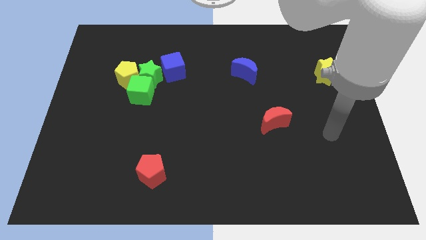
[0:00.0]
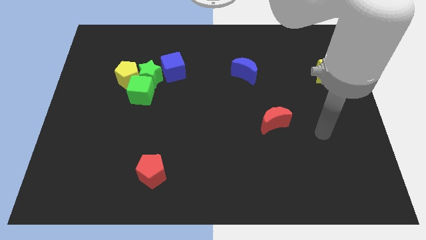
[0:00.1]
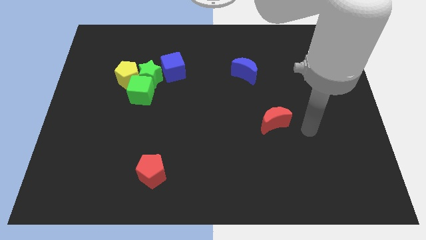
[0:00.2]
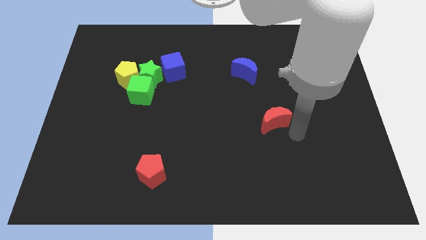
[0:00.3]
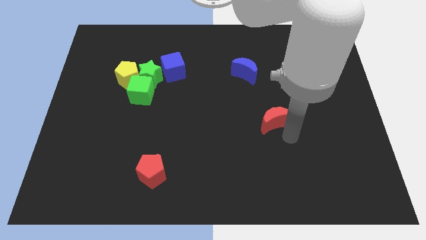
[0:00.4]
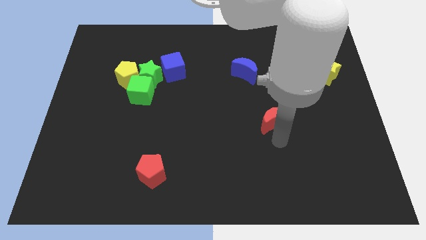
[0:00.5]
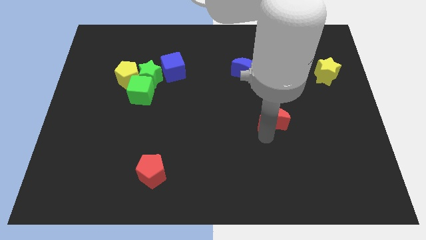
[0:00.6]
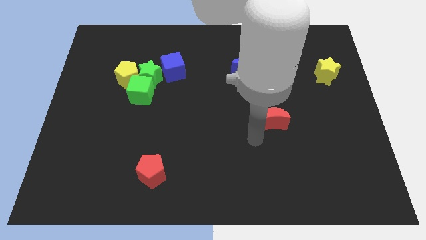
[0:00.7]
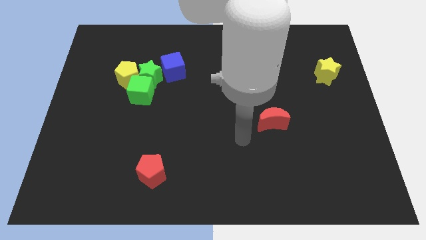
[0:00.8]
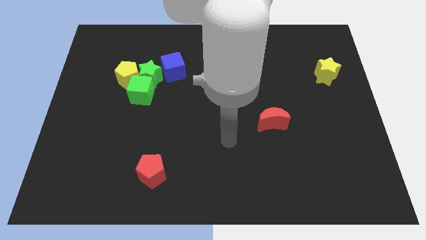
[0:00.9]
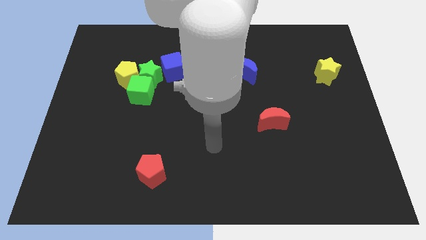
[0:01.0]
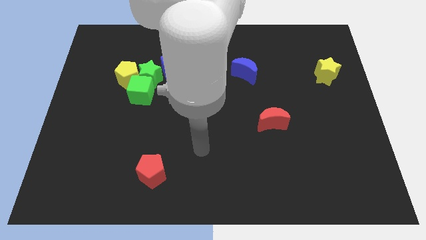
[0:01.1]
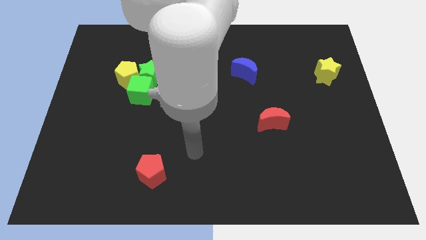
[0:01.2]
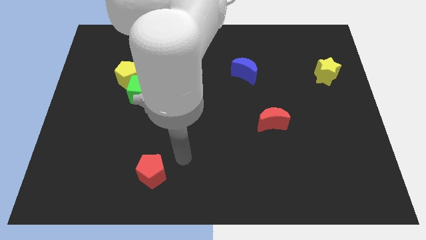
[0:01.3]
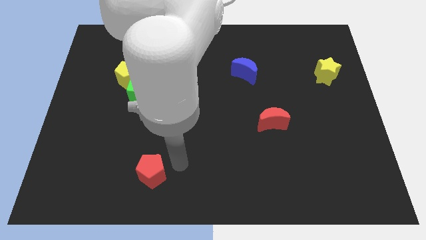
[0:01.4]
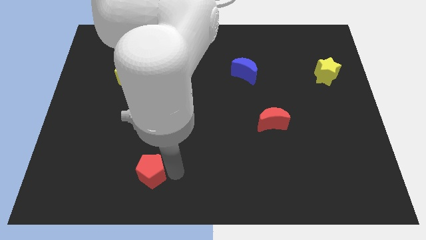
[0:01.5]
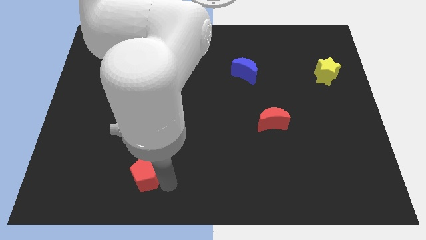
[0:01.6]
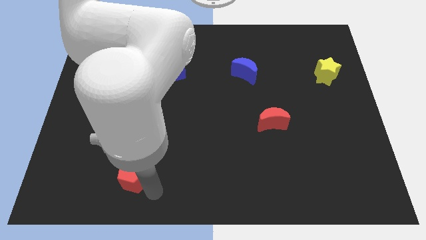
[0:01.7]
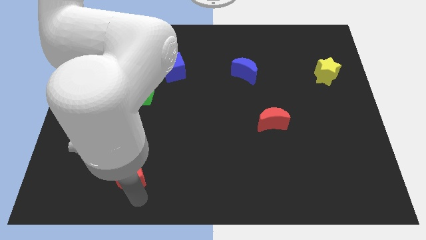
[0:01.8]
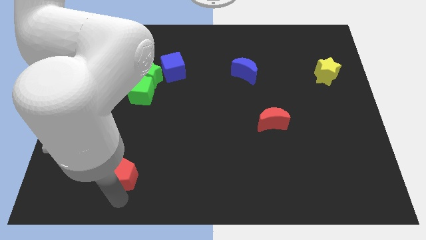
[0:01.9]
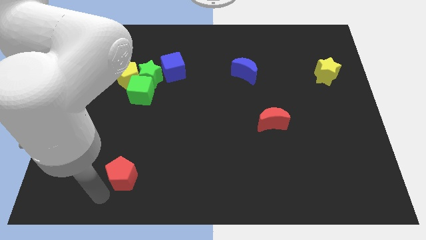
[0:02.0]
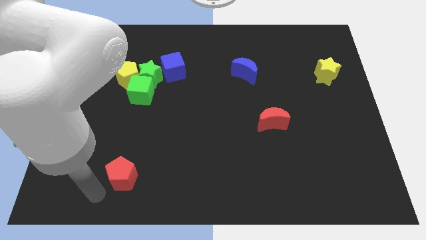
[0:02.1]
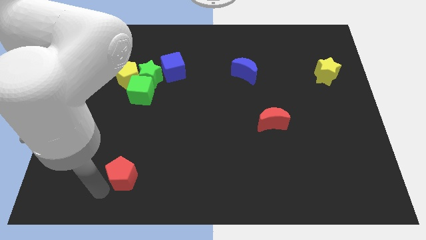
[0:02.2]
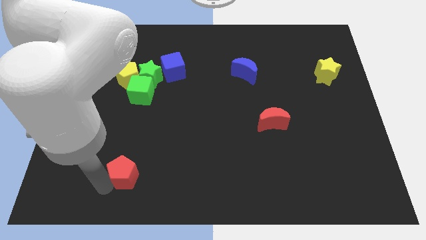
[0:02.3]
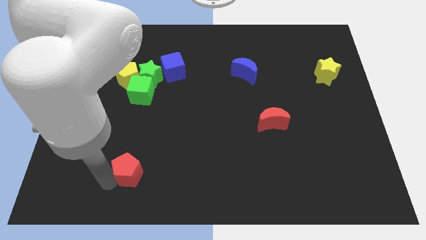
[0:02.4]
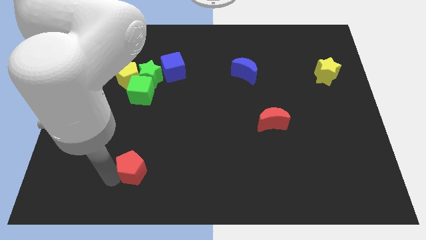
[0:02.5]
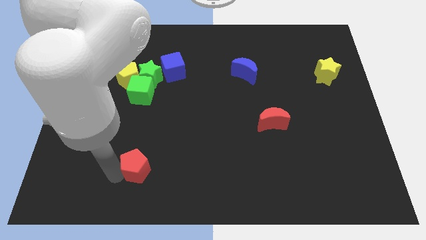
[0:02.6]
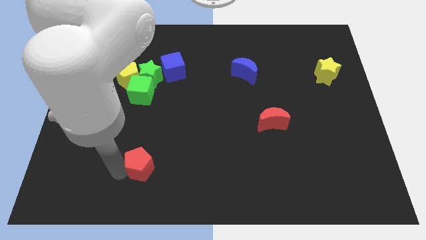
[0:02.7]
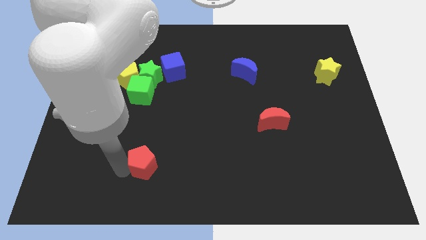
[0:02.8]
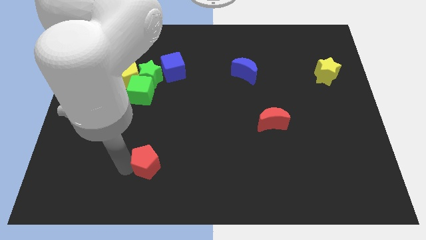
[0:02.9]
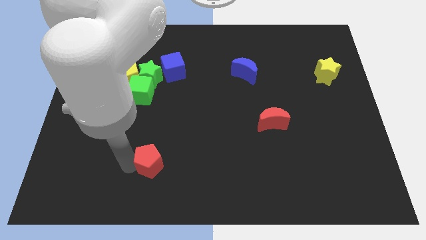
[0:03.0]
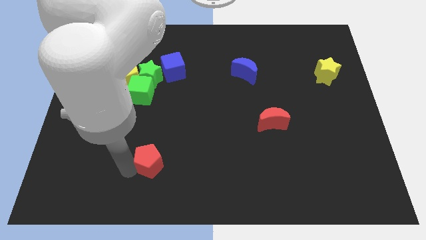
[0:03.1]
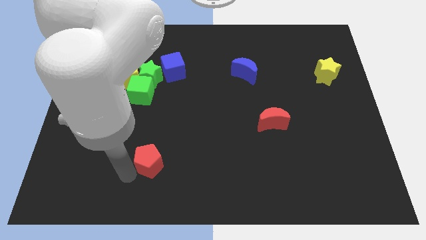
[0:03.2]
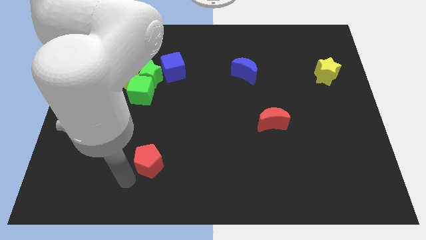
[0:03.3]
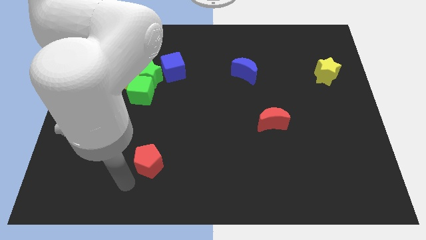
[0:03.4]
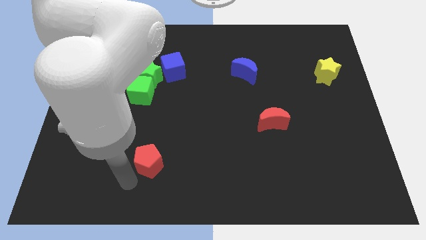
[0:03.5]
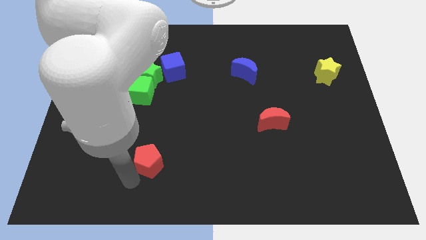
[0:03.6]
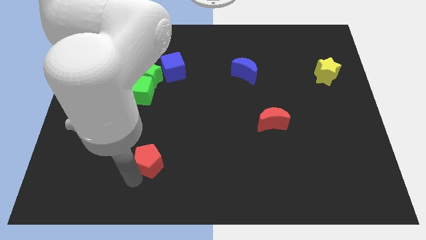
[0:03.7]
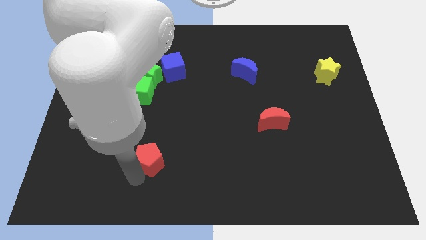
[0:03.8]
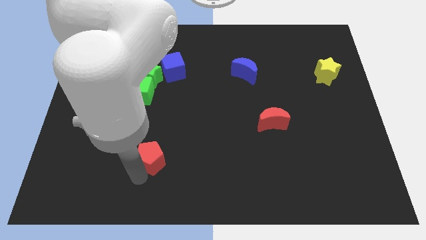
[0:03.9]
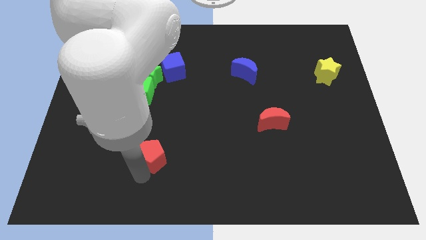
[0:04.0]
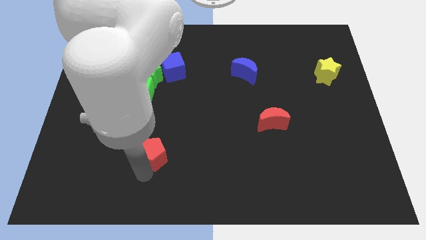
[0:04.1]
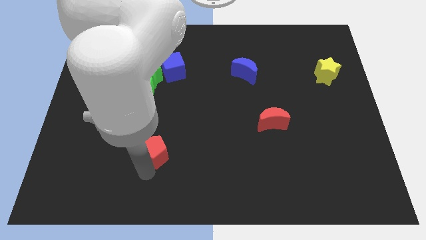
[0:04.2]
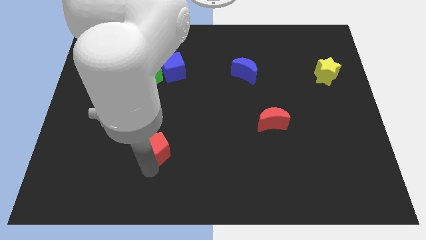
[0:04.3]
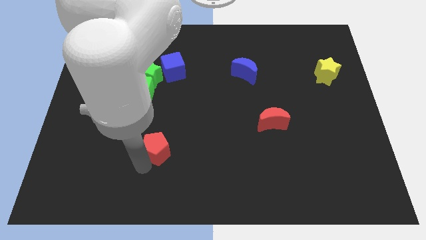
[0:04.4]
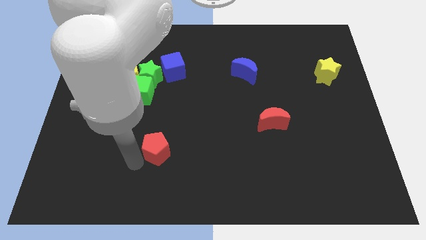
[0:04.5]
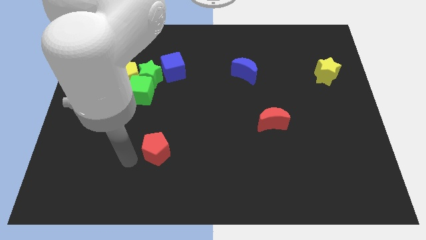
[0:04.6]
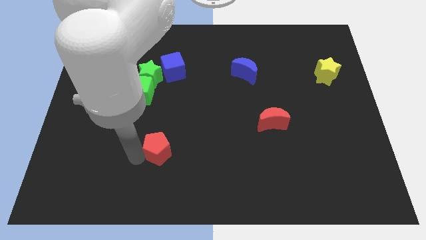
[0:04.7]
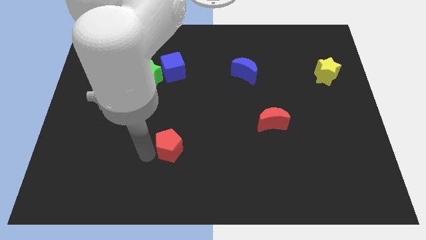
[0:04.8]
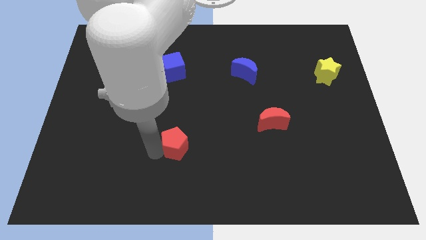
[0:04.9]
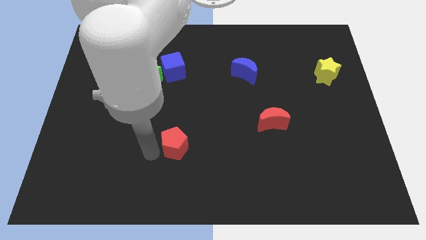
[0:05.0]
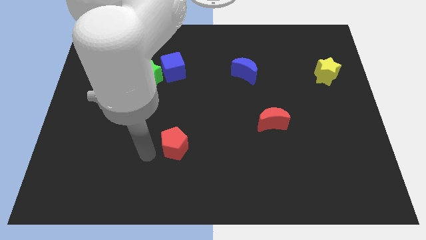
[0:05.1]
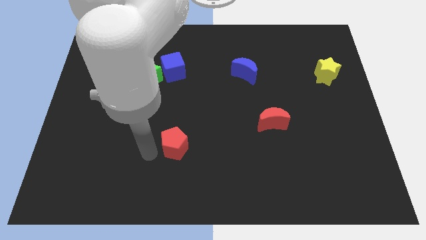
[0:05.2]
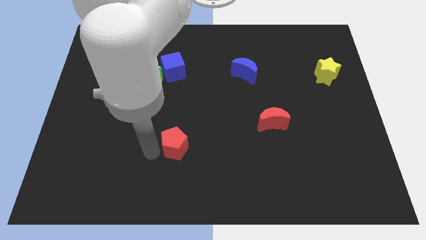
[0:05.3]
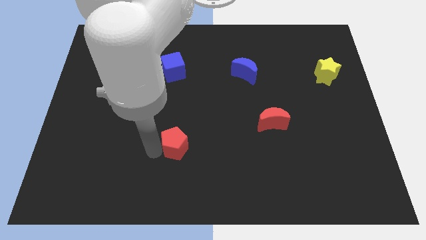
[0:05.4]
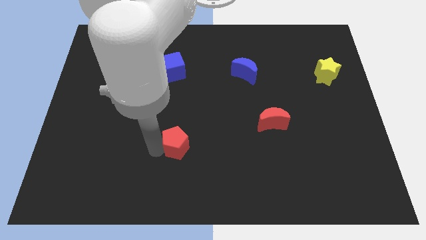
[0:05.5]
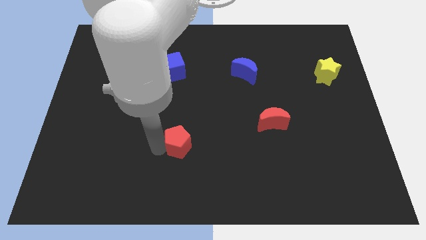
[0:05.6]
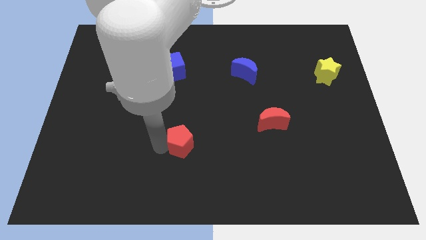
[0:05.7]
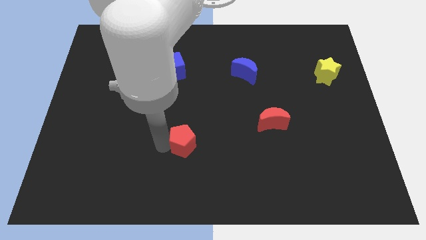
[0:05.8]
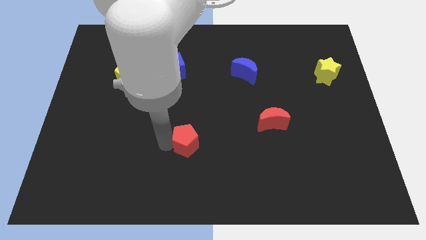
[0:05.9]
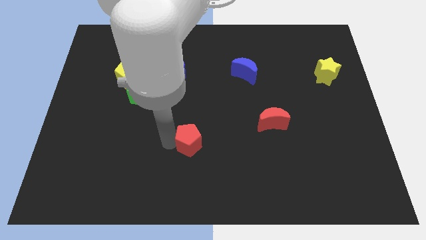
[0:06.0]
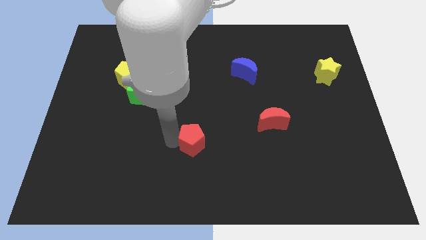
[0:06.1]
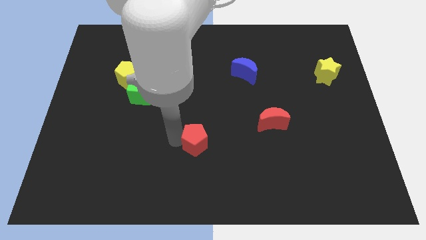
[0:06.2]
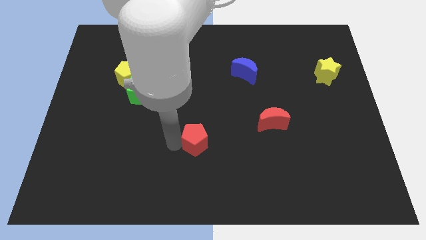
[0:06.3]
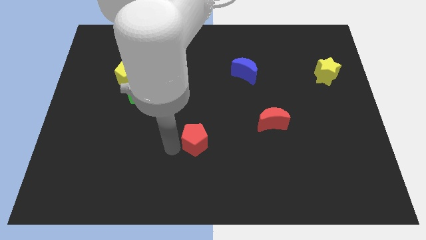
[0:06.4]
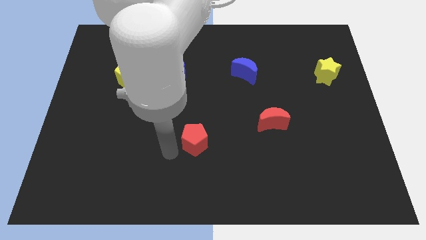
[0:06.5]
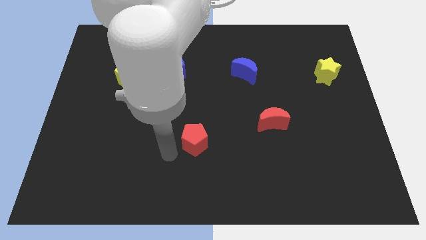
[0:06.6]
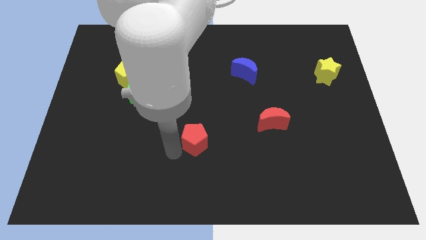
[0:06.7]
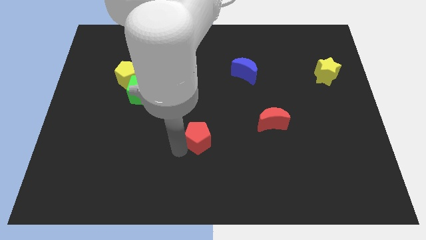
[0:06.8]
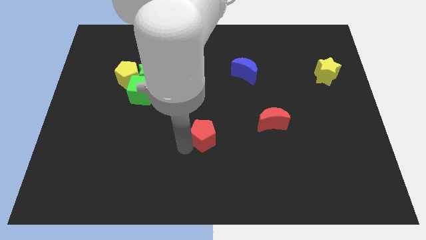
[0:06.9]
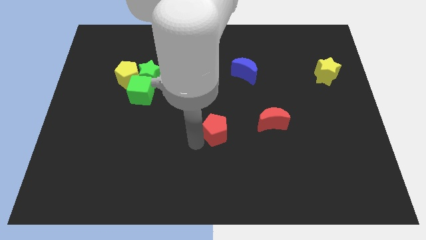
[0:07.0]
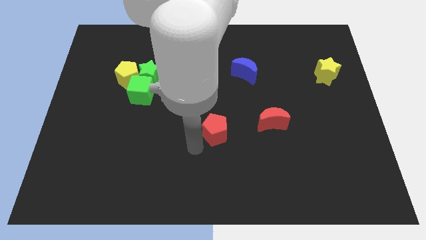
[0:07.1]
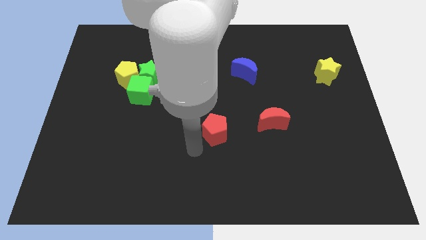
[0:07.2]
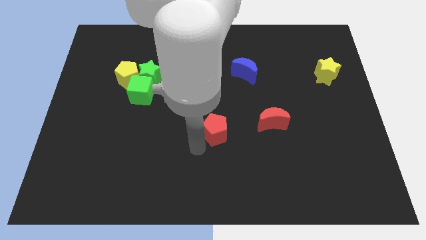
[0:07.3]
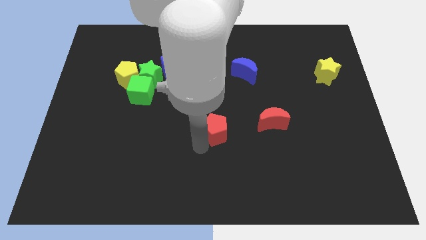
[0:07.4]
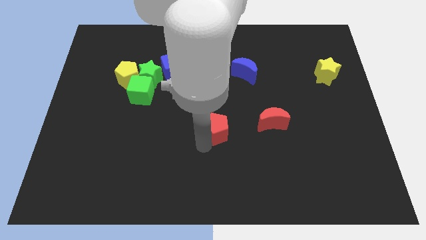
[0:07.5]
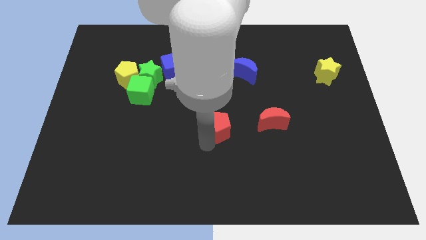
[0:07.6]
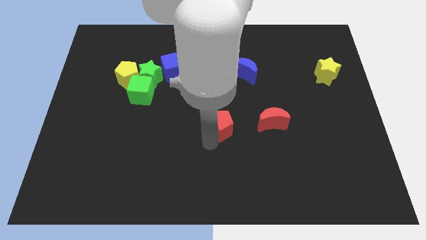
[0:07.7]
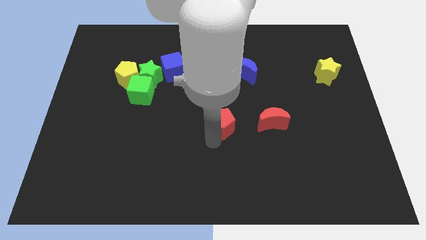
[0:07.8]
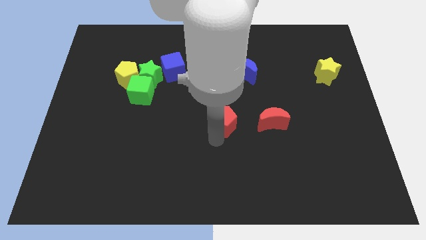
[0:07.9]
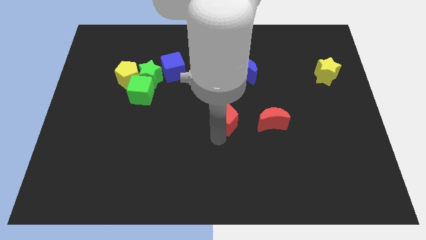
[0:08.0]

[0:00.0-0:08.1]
push the red pentagon upwards and then right

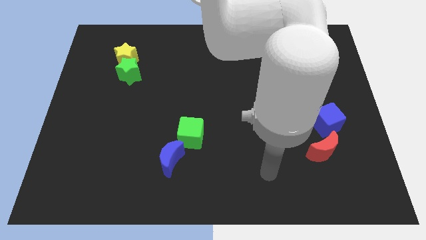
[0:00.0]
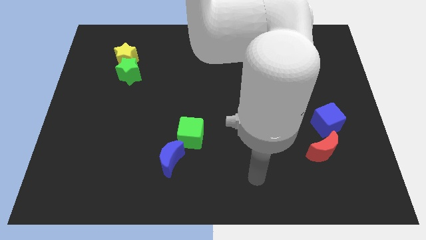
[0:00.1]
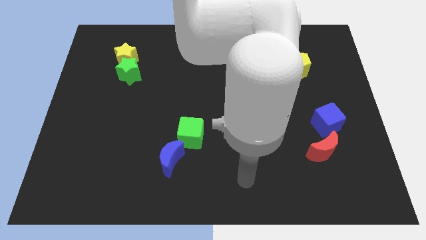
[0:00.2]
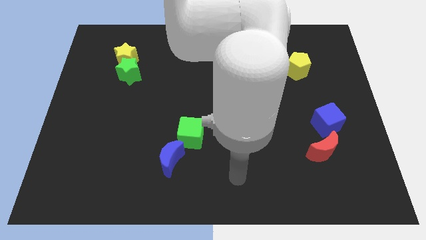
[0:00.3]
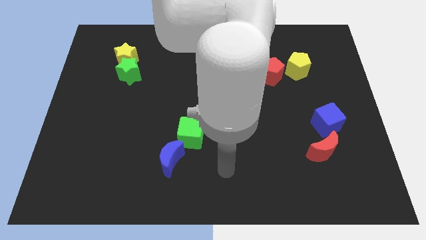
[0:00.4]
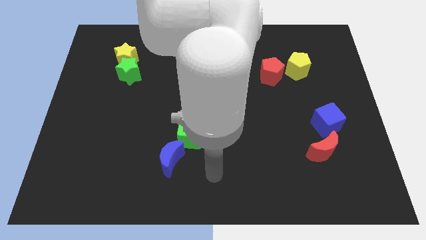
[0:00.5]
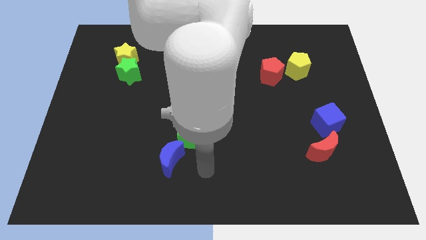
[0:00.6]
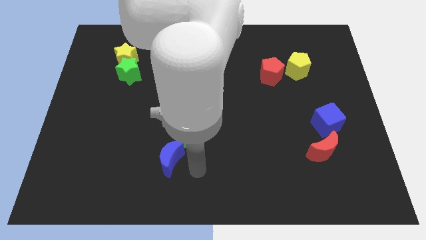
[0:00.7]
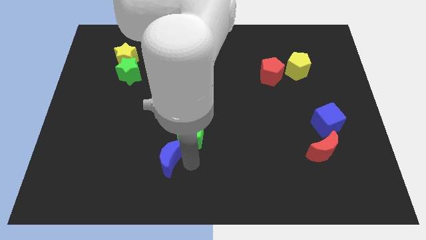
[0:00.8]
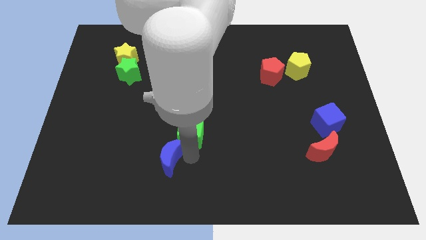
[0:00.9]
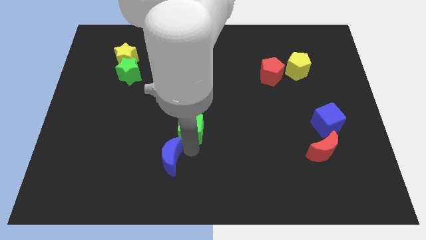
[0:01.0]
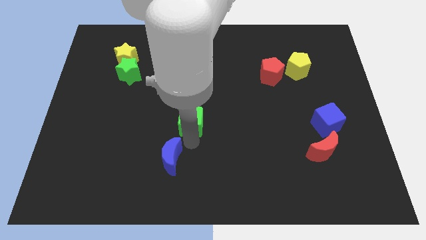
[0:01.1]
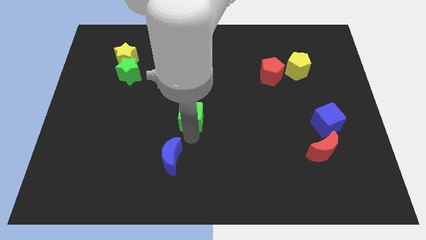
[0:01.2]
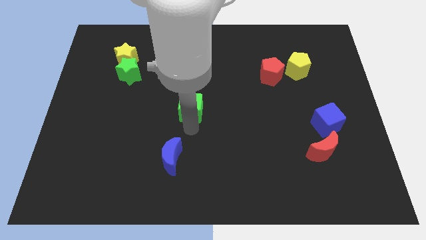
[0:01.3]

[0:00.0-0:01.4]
slightly slide the green cube upwards
